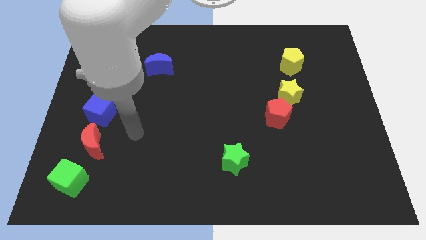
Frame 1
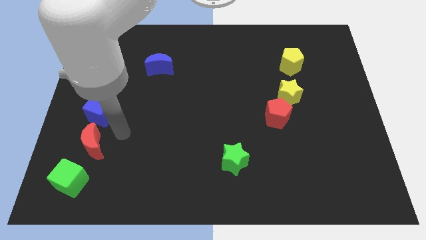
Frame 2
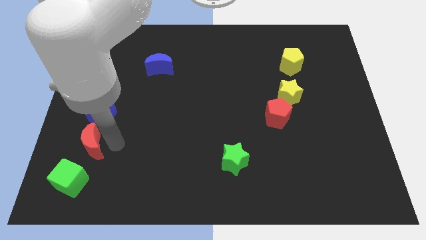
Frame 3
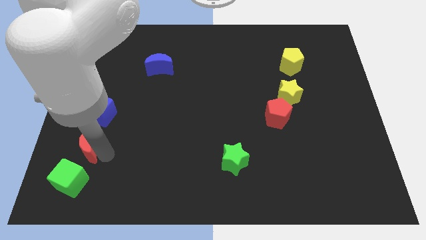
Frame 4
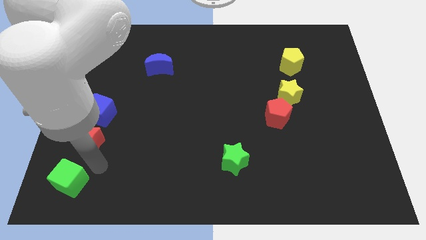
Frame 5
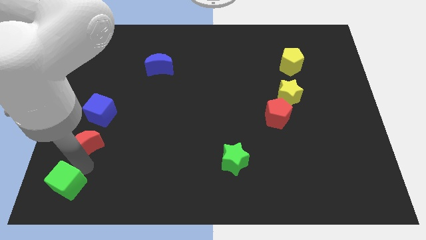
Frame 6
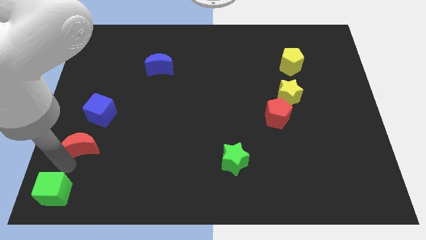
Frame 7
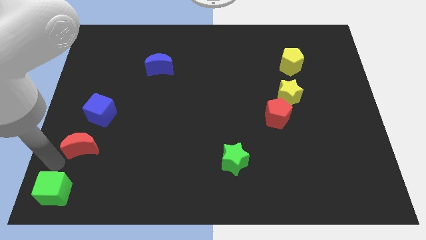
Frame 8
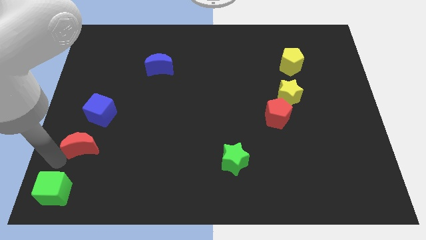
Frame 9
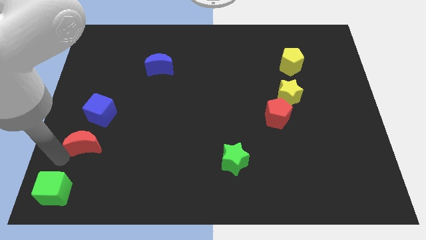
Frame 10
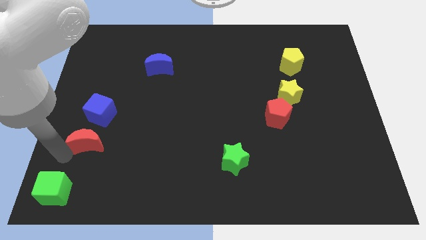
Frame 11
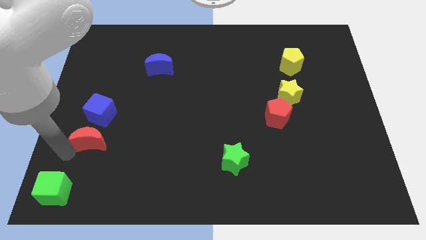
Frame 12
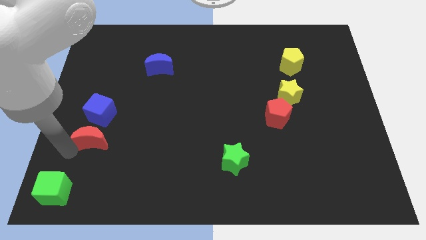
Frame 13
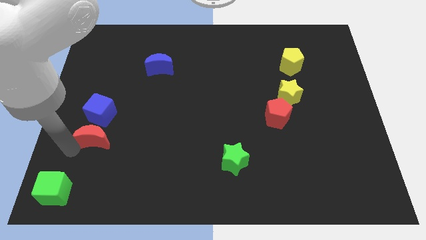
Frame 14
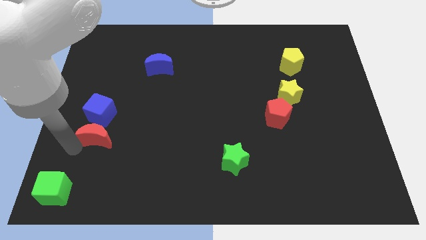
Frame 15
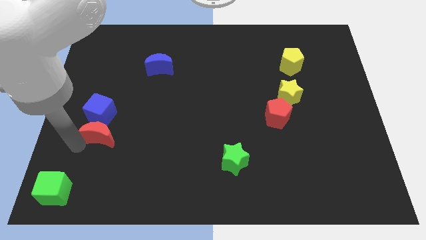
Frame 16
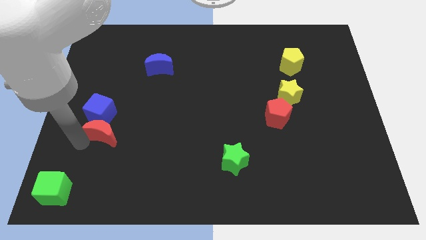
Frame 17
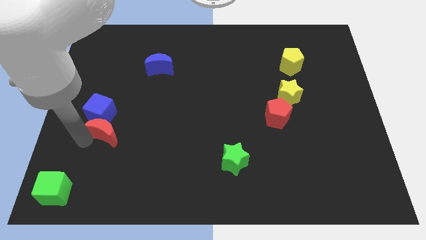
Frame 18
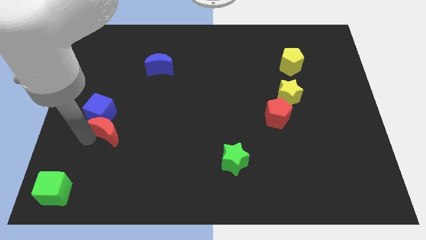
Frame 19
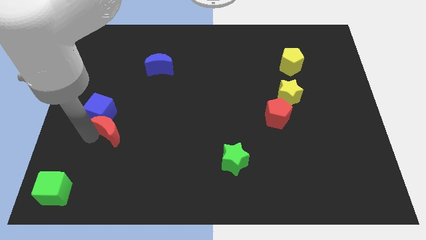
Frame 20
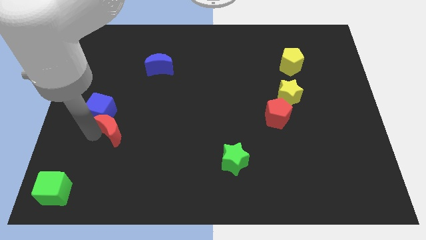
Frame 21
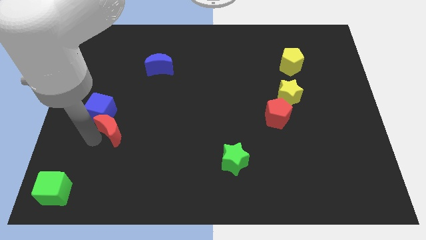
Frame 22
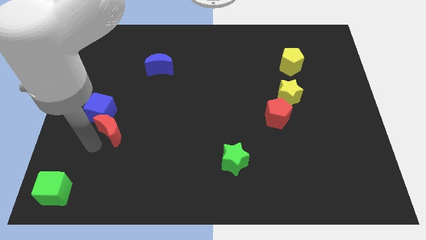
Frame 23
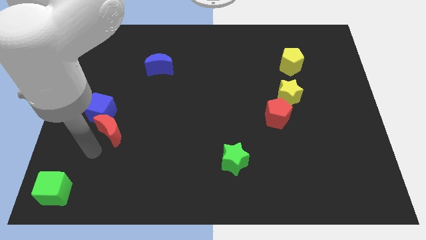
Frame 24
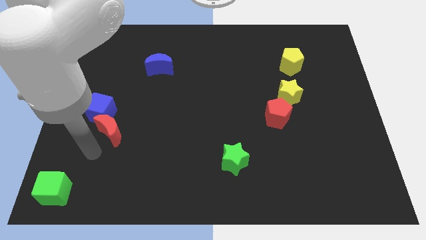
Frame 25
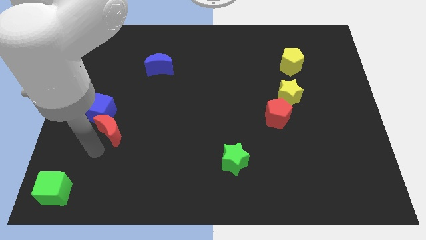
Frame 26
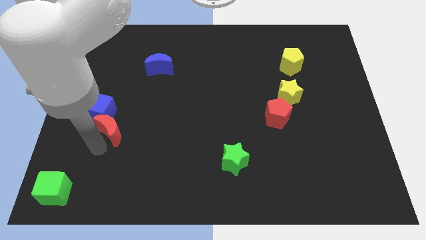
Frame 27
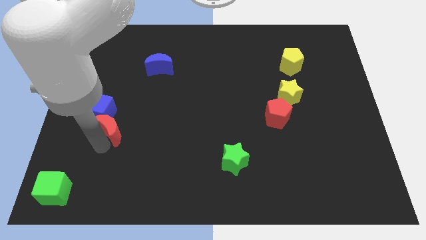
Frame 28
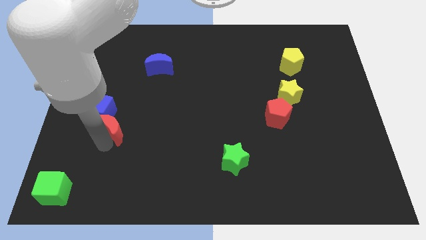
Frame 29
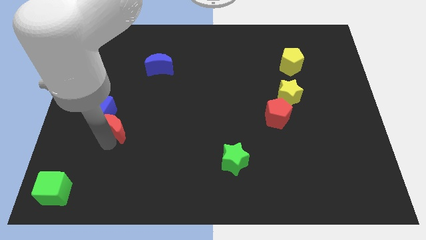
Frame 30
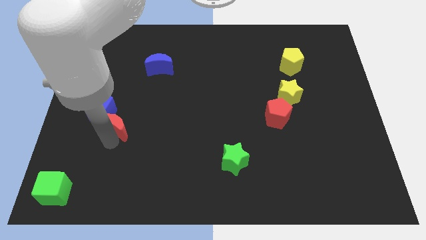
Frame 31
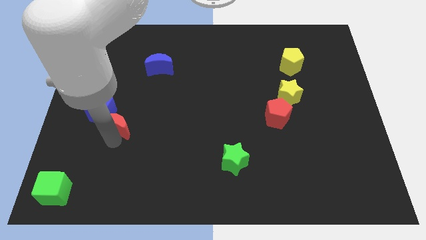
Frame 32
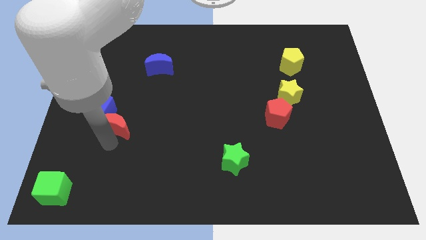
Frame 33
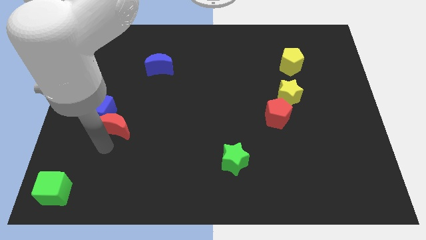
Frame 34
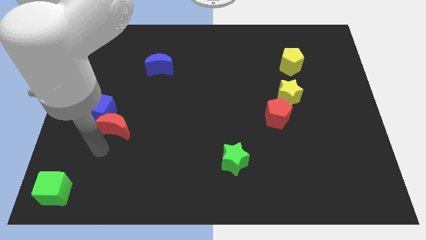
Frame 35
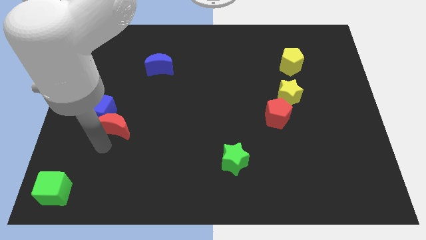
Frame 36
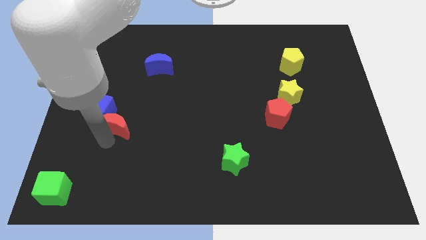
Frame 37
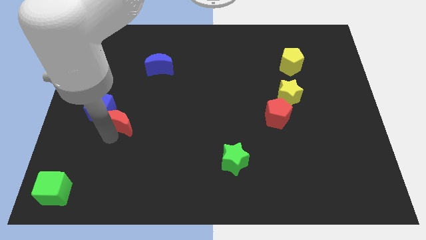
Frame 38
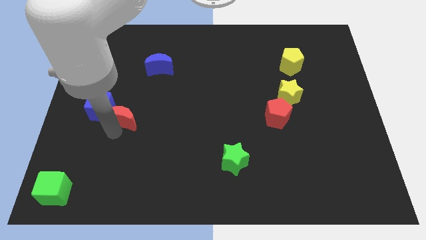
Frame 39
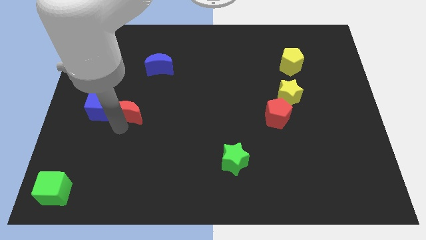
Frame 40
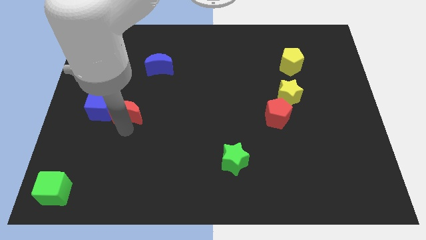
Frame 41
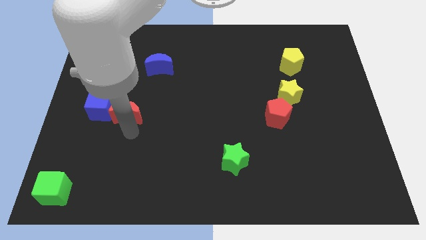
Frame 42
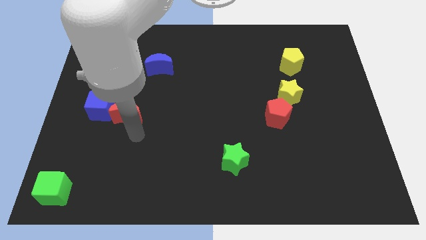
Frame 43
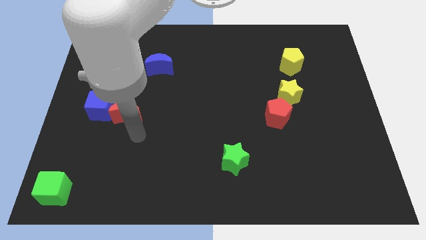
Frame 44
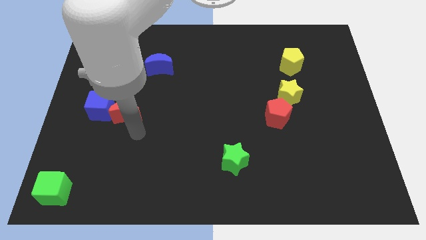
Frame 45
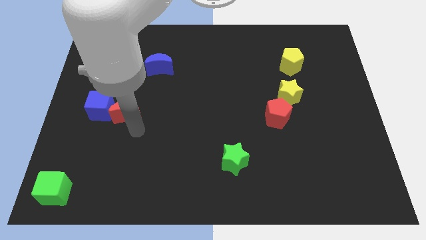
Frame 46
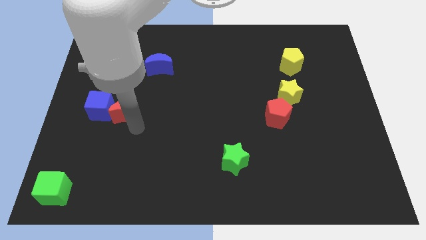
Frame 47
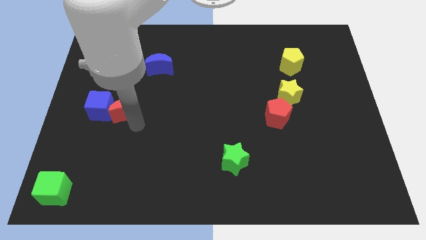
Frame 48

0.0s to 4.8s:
slide the red moon a bit upwards

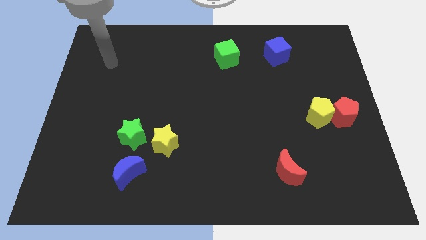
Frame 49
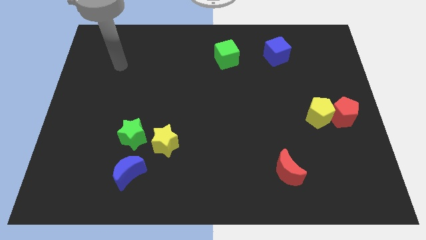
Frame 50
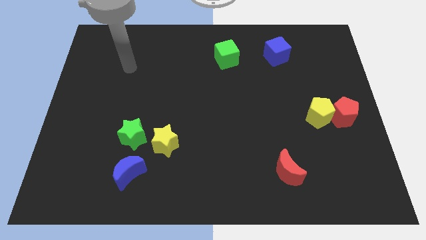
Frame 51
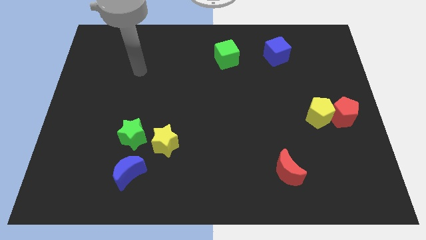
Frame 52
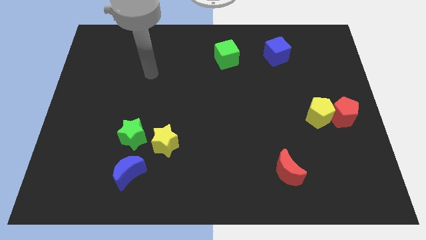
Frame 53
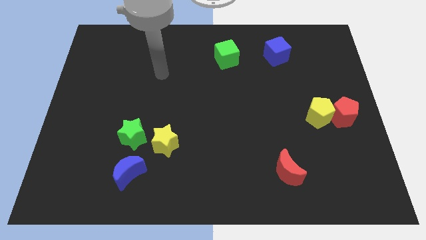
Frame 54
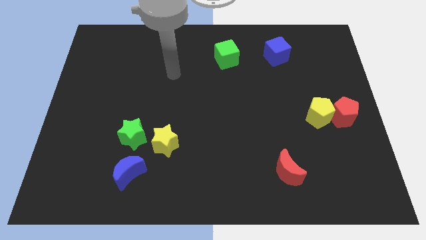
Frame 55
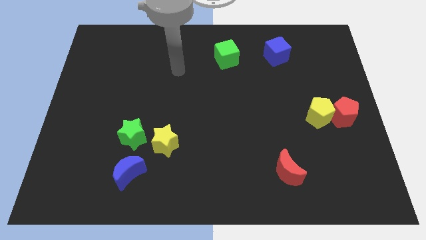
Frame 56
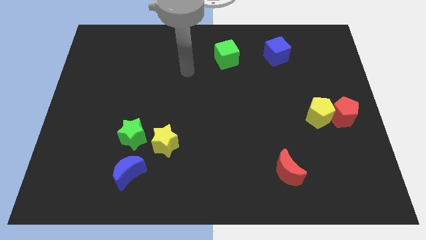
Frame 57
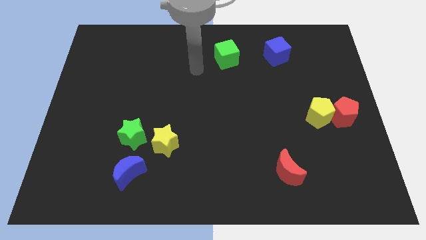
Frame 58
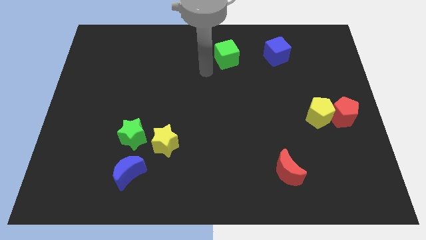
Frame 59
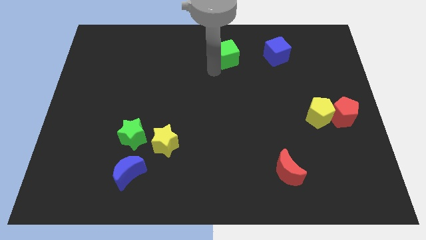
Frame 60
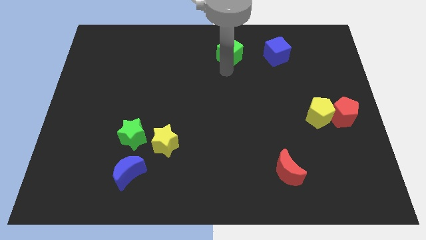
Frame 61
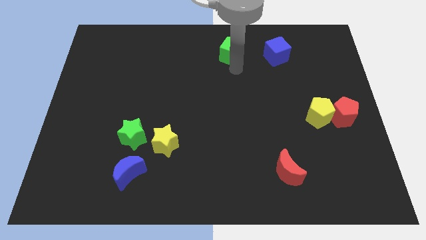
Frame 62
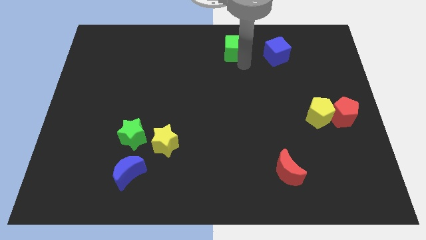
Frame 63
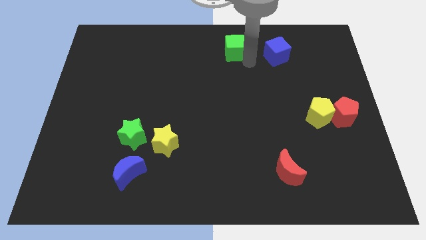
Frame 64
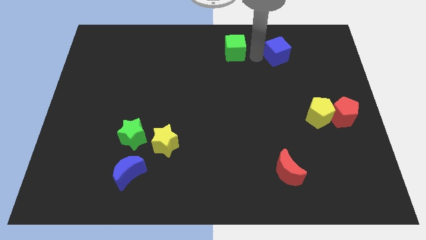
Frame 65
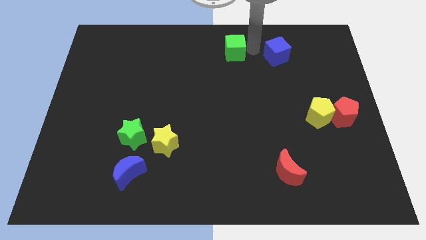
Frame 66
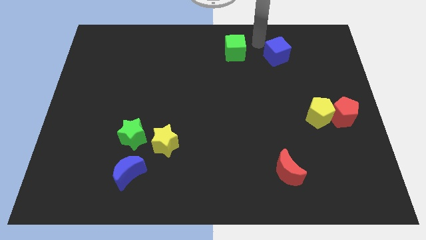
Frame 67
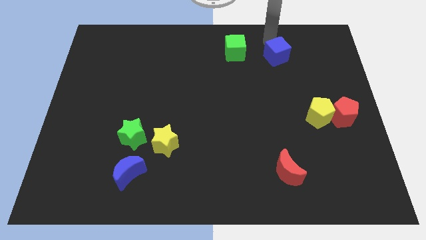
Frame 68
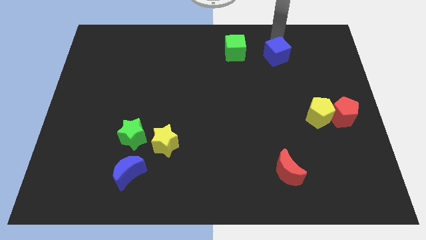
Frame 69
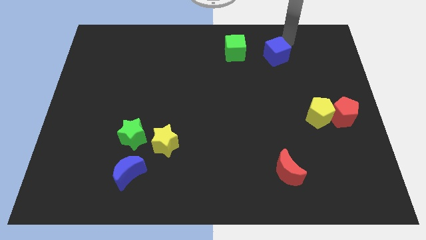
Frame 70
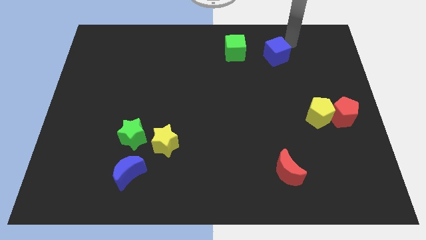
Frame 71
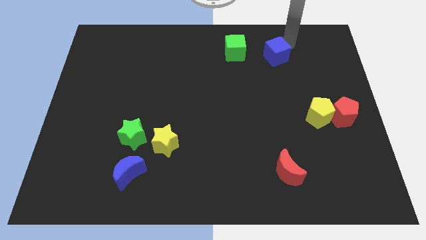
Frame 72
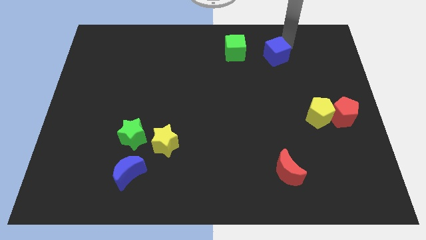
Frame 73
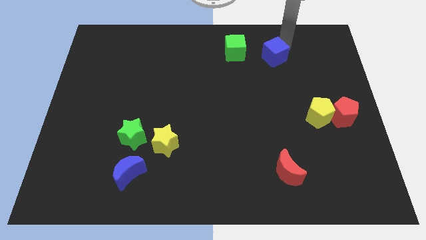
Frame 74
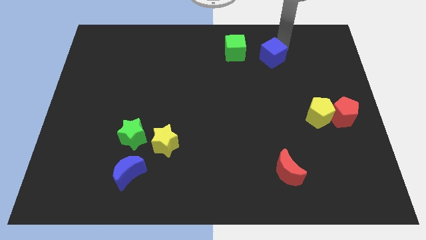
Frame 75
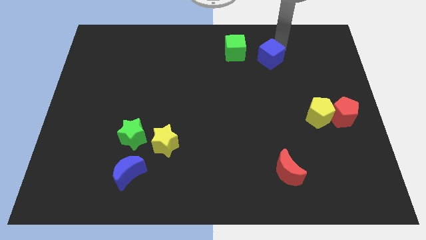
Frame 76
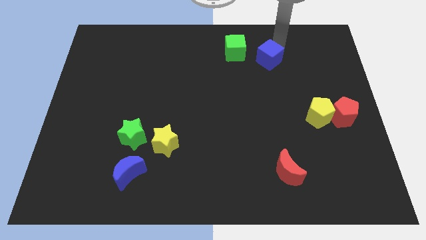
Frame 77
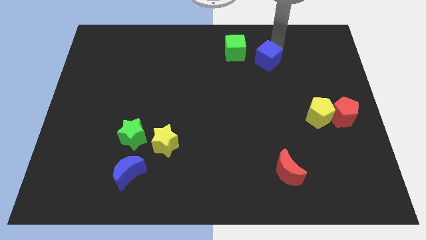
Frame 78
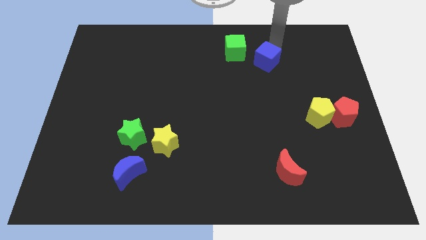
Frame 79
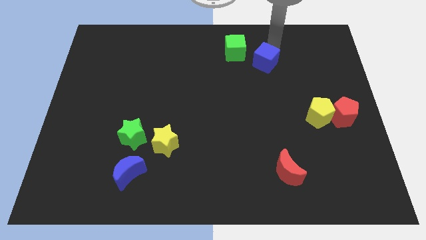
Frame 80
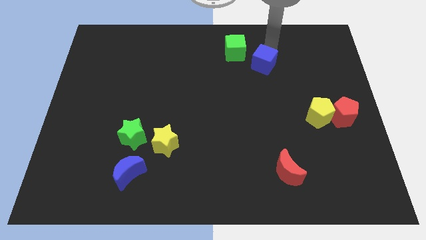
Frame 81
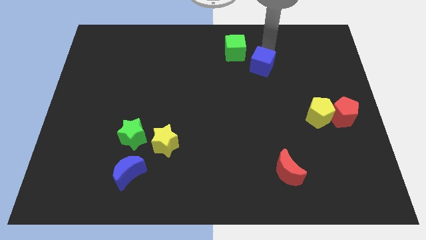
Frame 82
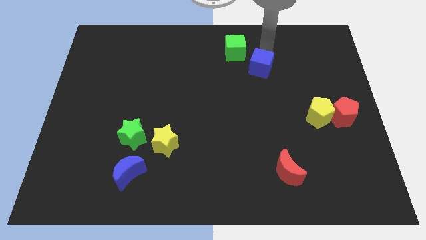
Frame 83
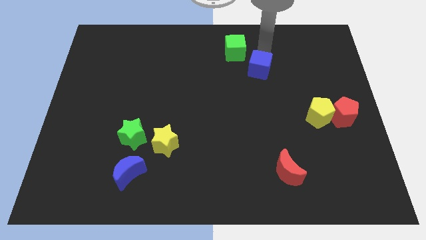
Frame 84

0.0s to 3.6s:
push the blue cube down and then left a little
